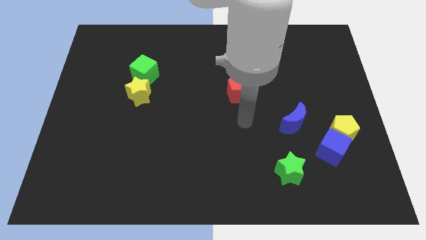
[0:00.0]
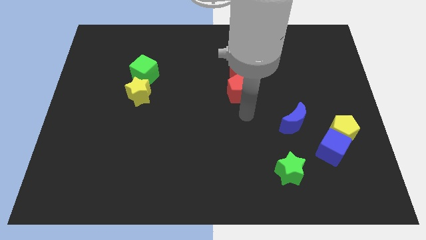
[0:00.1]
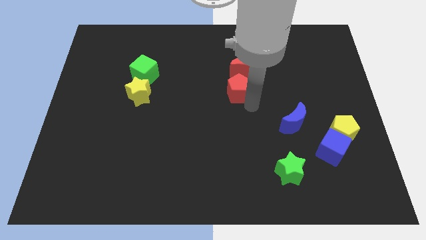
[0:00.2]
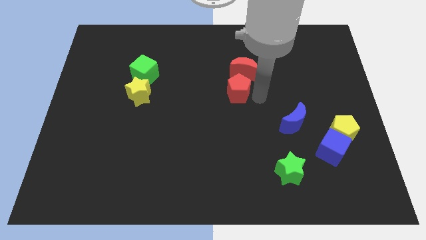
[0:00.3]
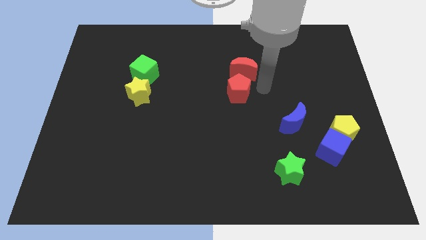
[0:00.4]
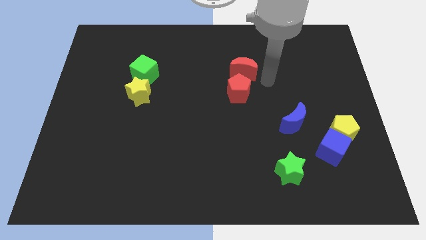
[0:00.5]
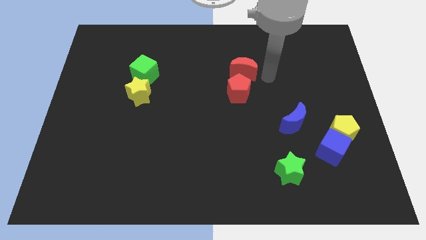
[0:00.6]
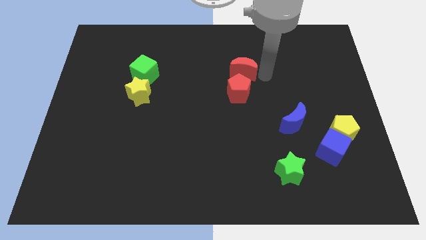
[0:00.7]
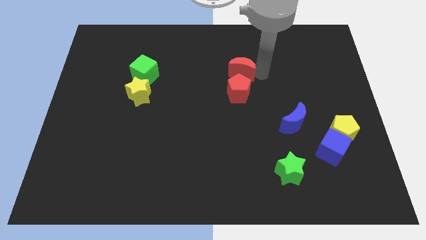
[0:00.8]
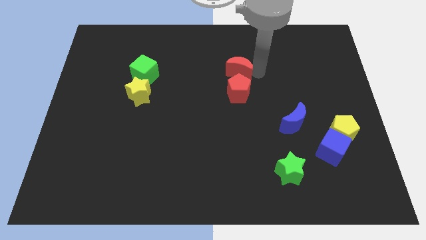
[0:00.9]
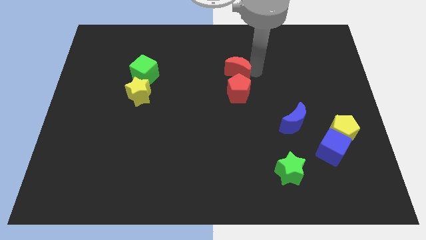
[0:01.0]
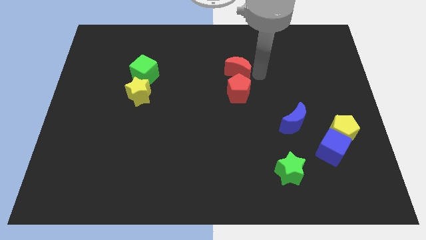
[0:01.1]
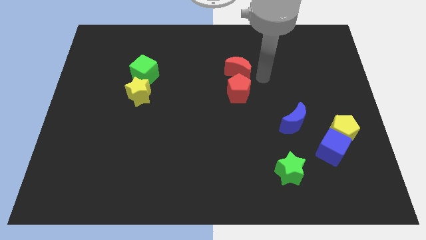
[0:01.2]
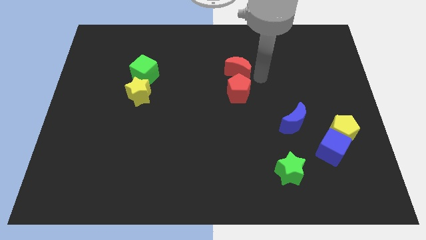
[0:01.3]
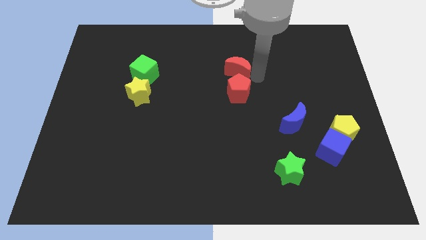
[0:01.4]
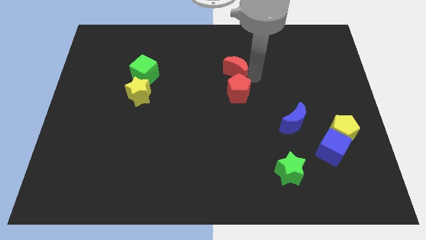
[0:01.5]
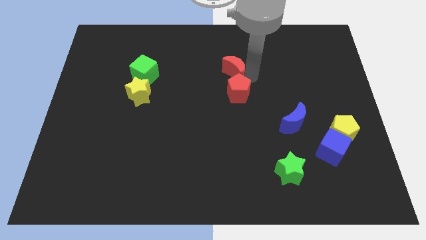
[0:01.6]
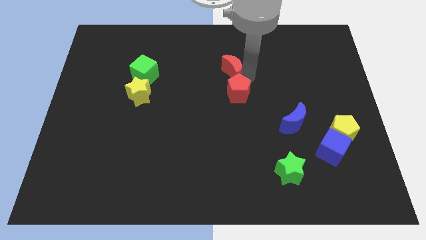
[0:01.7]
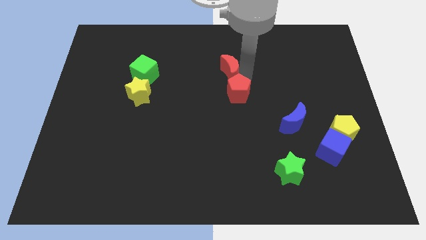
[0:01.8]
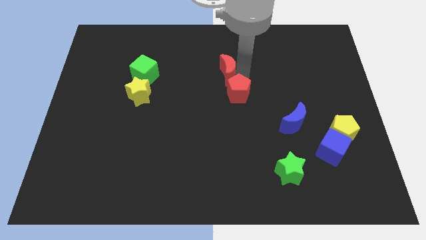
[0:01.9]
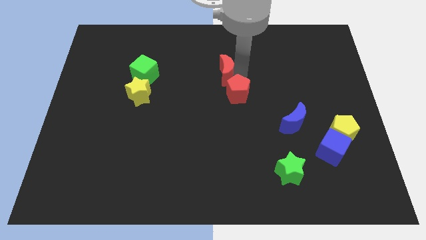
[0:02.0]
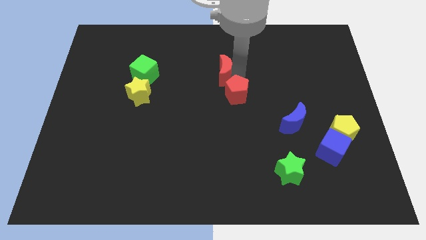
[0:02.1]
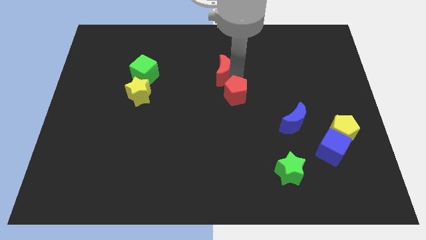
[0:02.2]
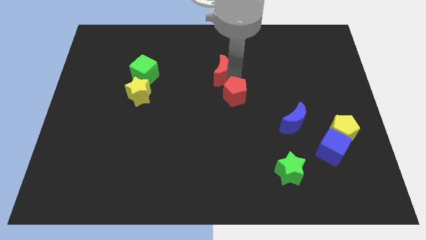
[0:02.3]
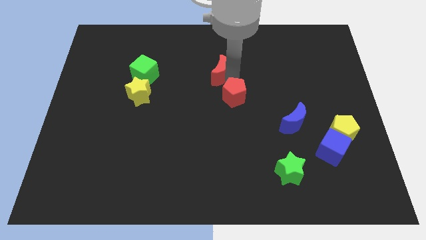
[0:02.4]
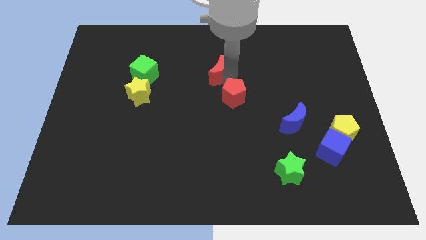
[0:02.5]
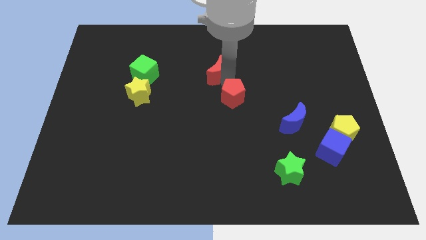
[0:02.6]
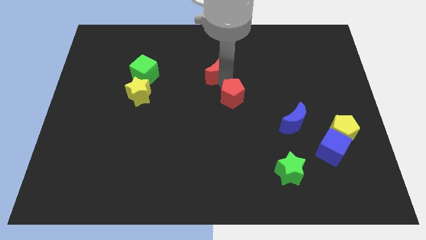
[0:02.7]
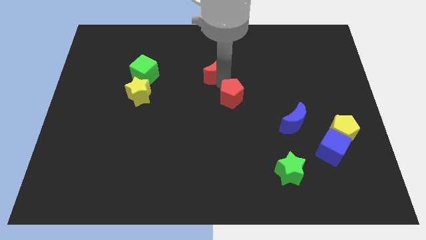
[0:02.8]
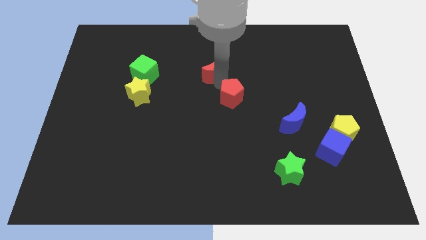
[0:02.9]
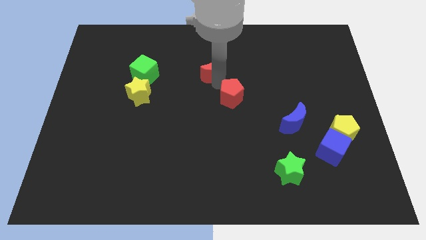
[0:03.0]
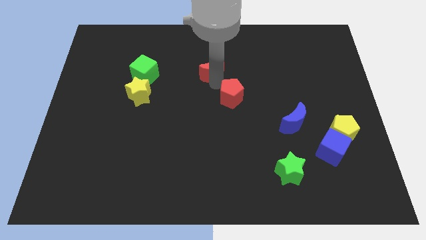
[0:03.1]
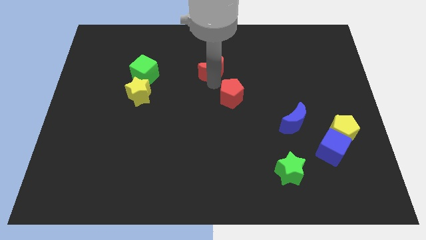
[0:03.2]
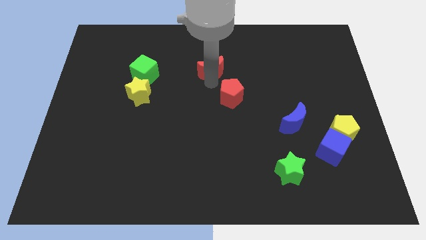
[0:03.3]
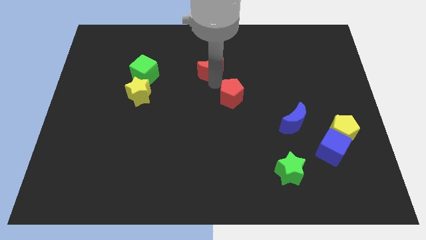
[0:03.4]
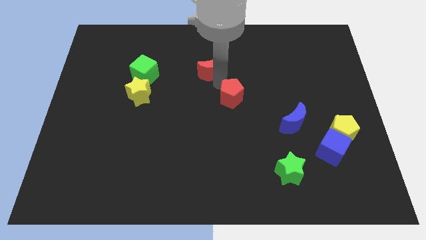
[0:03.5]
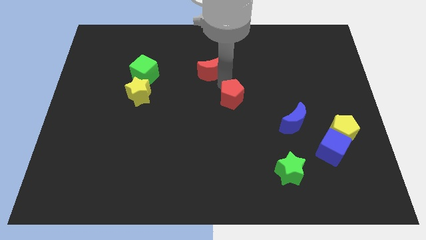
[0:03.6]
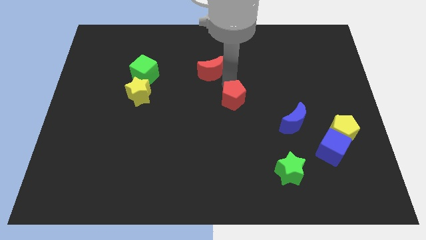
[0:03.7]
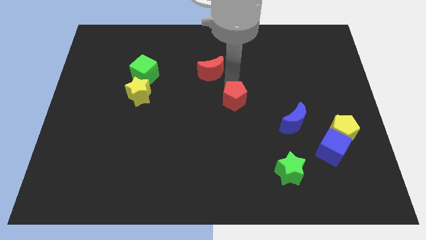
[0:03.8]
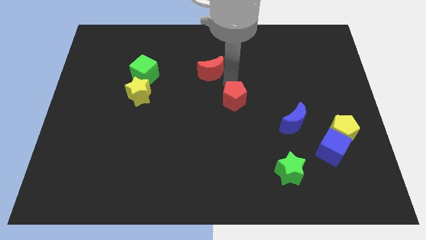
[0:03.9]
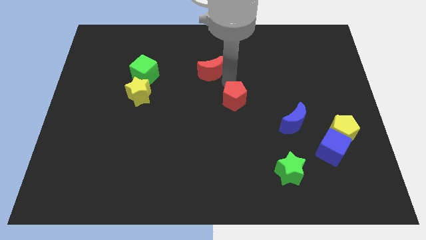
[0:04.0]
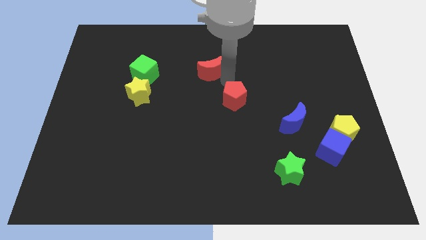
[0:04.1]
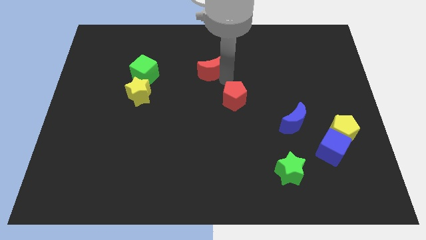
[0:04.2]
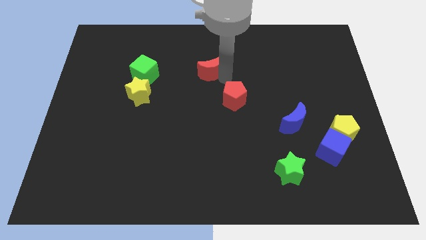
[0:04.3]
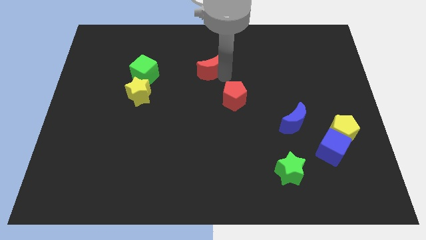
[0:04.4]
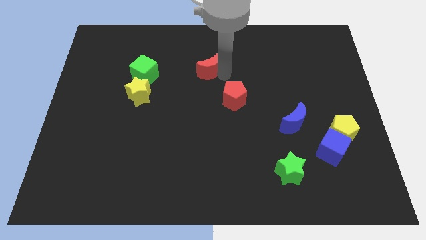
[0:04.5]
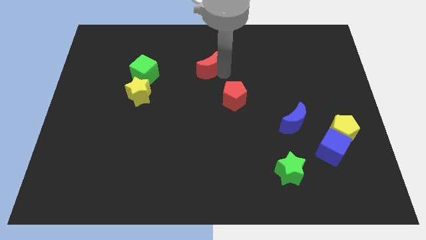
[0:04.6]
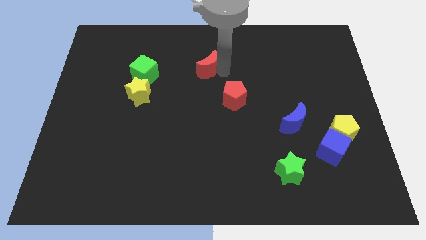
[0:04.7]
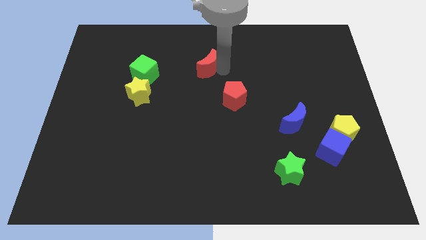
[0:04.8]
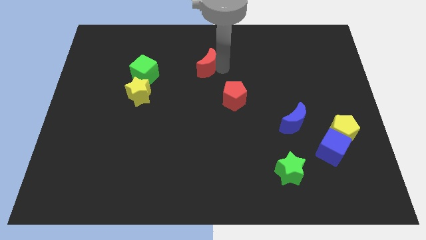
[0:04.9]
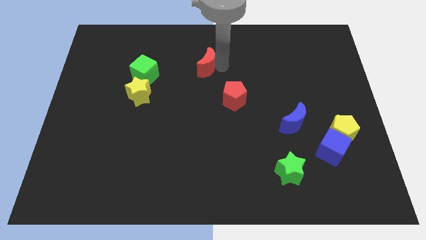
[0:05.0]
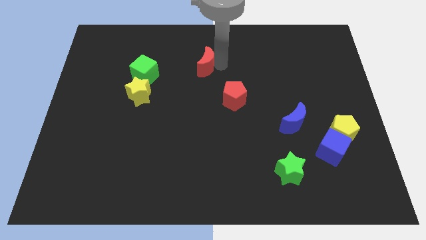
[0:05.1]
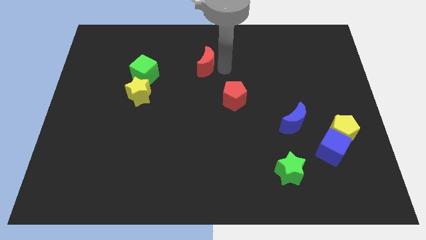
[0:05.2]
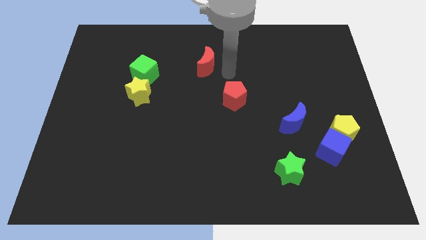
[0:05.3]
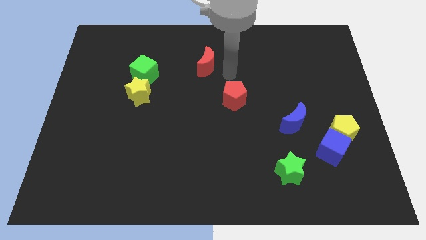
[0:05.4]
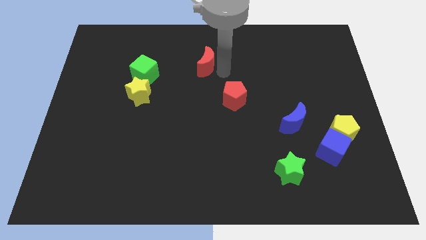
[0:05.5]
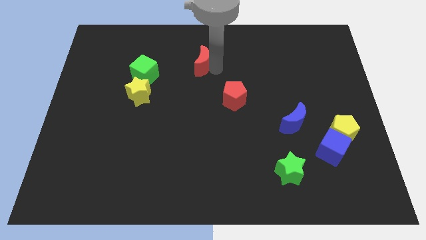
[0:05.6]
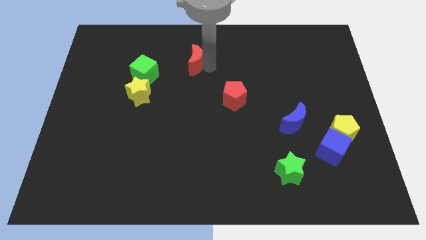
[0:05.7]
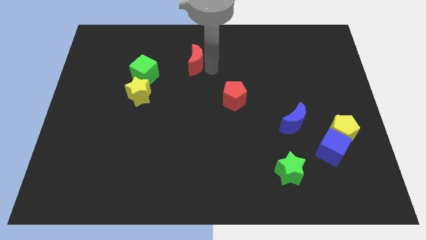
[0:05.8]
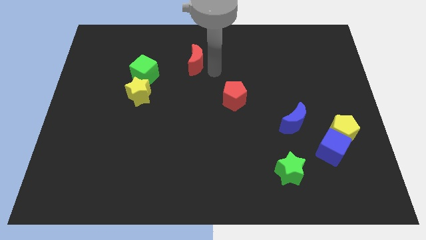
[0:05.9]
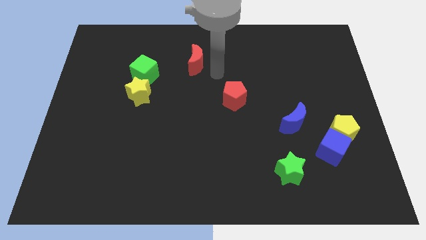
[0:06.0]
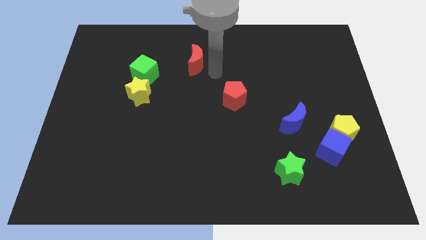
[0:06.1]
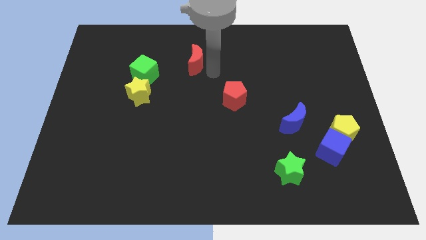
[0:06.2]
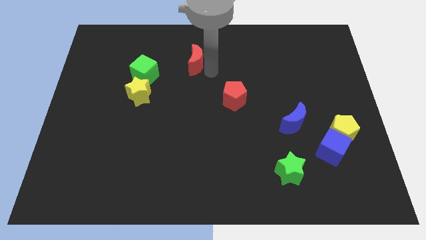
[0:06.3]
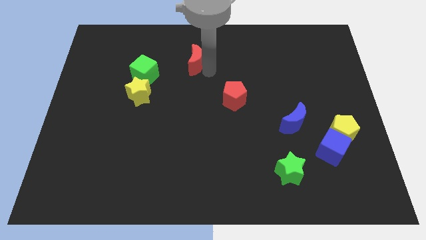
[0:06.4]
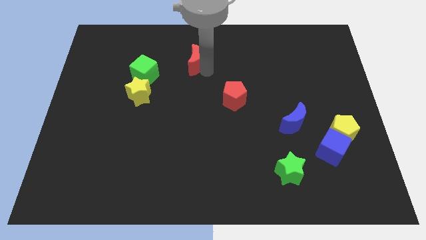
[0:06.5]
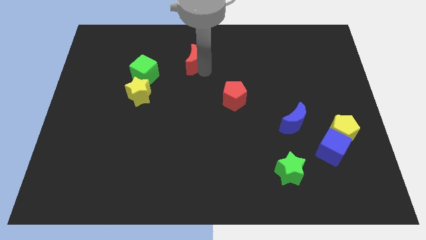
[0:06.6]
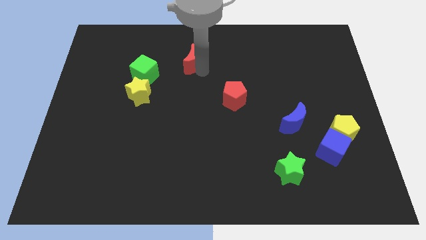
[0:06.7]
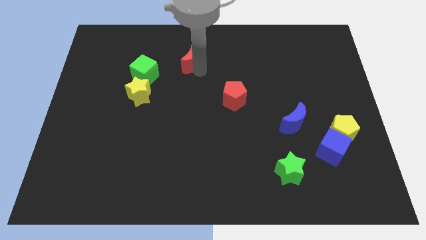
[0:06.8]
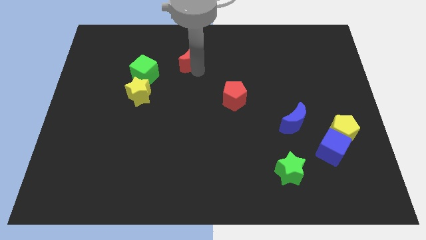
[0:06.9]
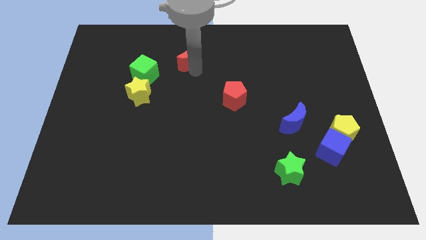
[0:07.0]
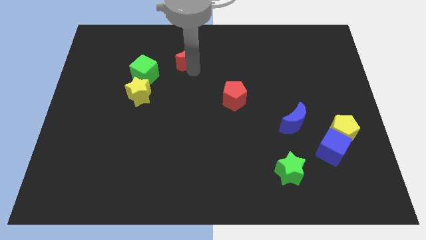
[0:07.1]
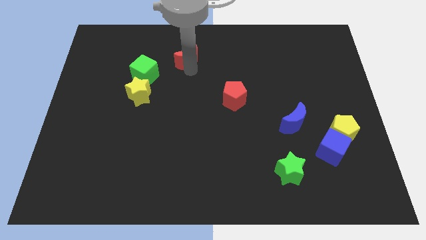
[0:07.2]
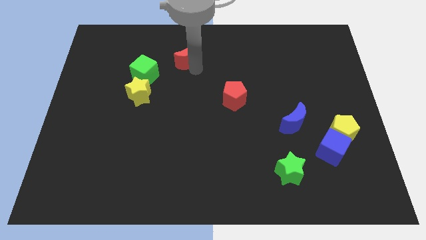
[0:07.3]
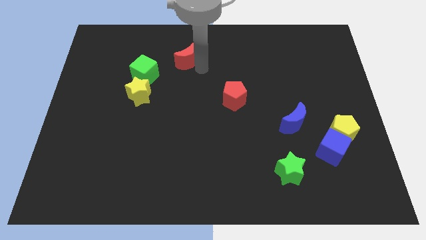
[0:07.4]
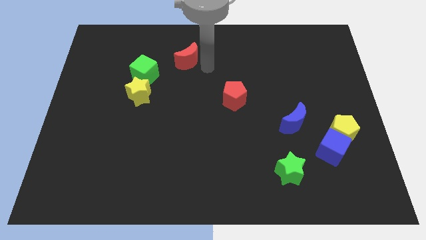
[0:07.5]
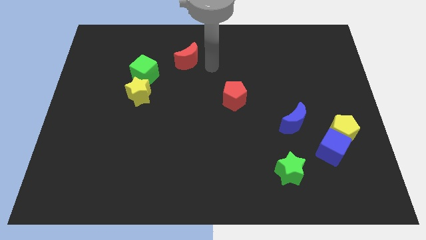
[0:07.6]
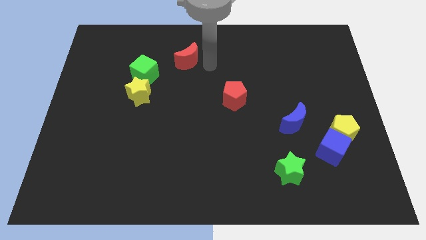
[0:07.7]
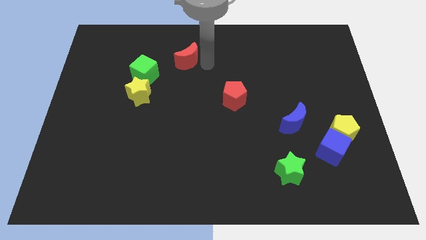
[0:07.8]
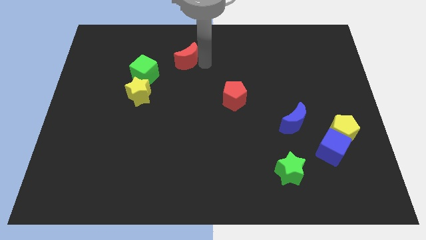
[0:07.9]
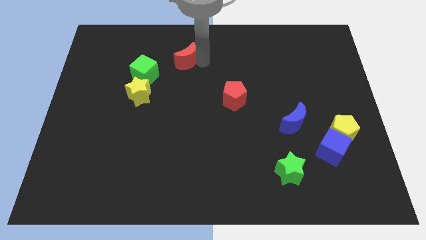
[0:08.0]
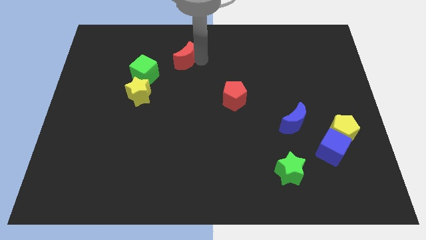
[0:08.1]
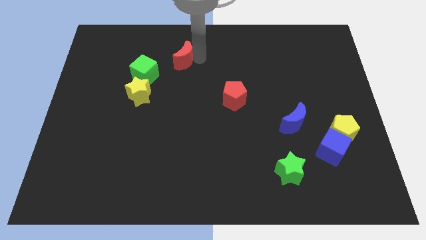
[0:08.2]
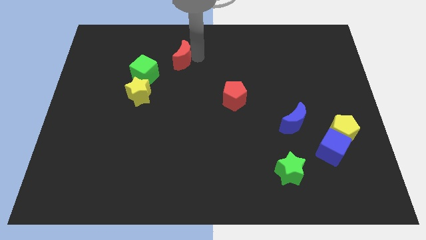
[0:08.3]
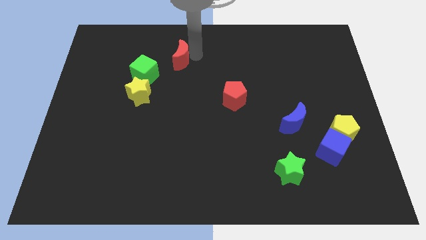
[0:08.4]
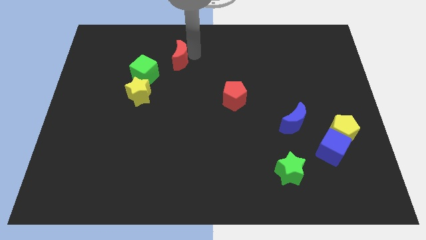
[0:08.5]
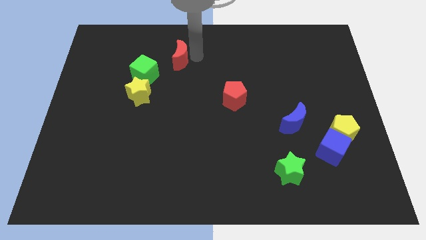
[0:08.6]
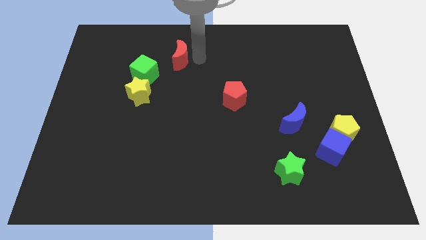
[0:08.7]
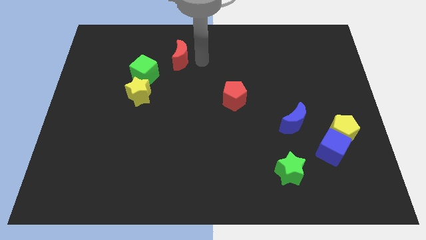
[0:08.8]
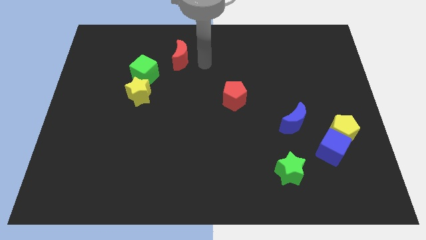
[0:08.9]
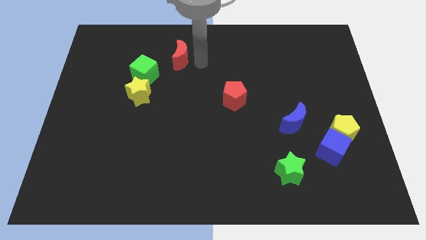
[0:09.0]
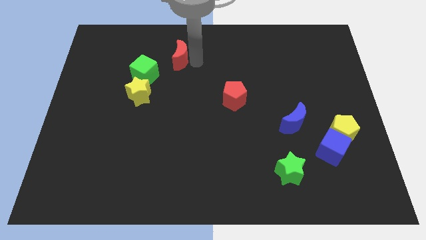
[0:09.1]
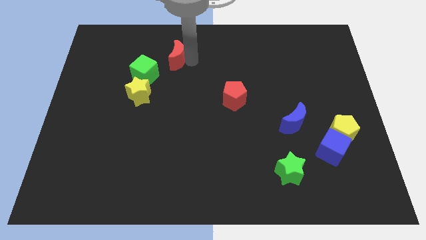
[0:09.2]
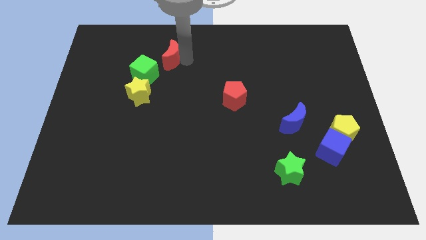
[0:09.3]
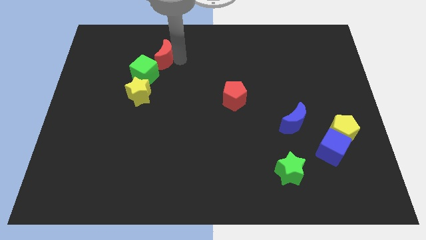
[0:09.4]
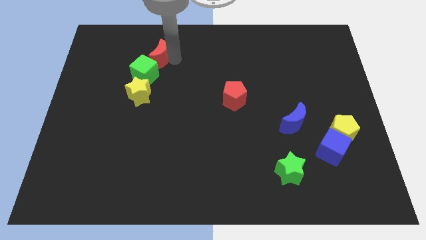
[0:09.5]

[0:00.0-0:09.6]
move the red moon to the left
